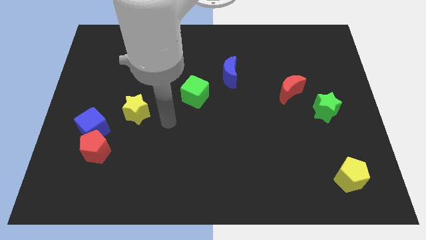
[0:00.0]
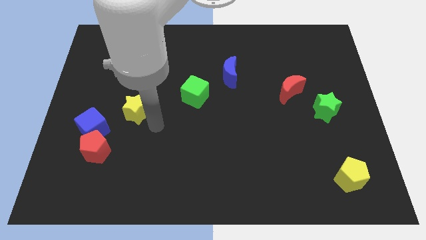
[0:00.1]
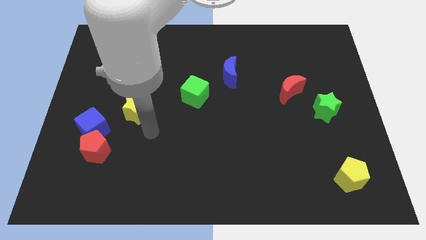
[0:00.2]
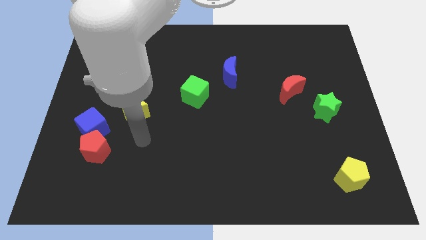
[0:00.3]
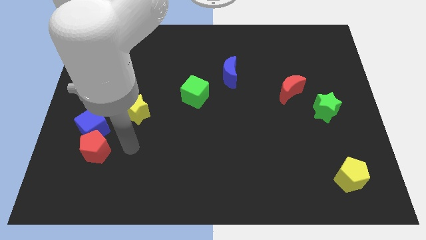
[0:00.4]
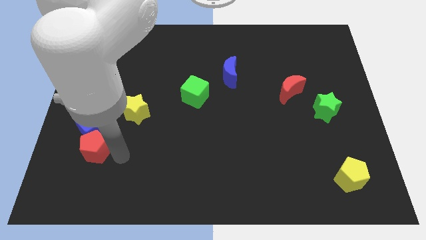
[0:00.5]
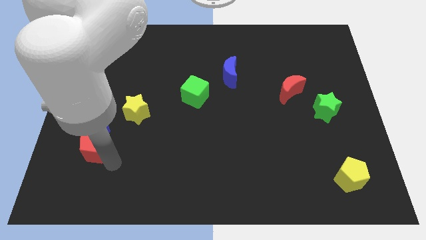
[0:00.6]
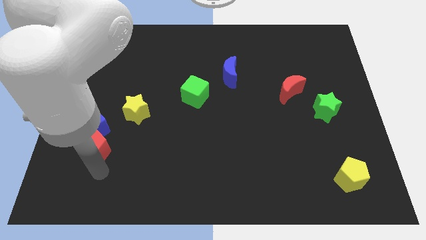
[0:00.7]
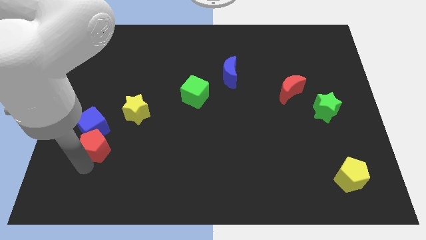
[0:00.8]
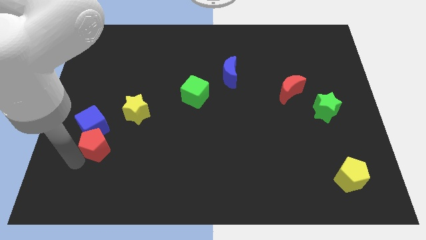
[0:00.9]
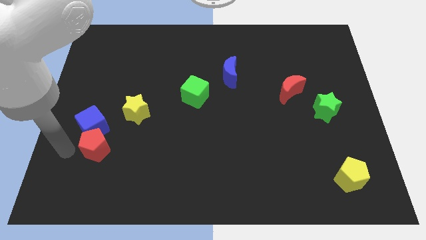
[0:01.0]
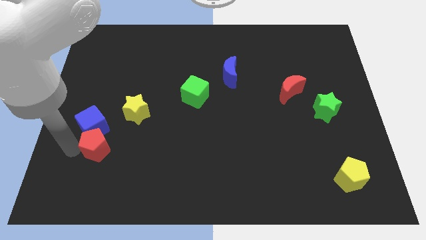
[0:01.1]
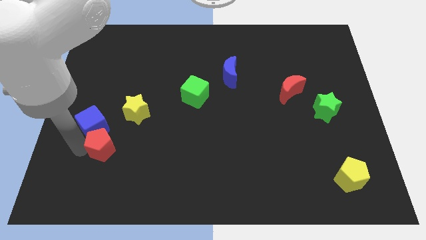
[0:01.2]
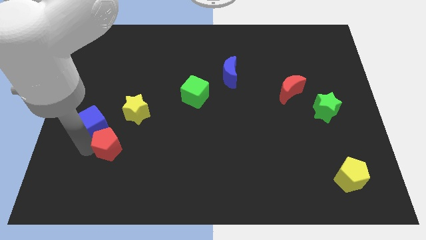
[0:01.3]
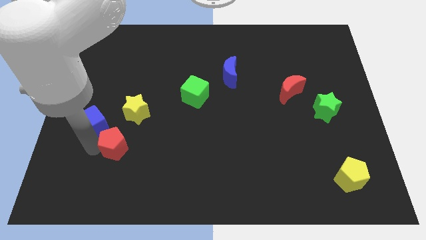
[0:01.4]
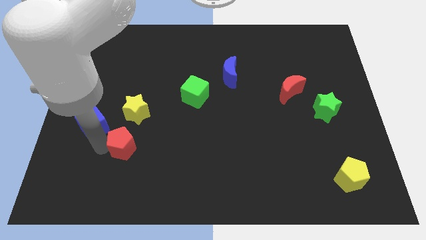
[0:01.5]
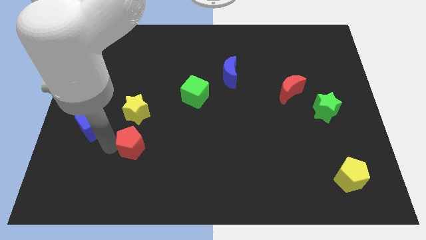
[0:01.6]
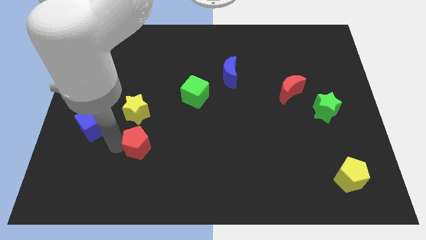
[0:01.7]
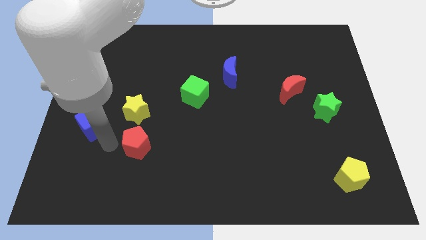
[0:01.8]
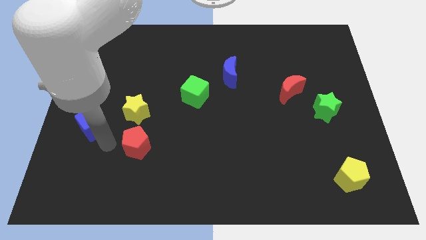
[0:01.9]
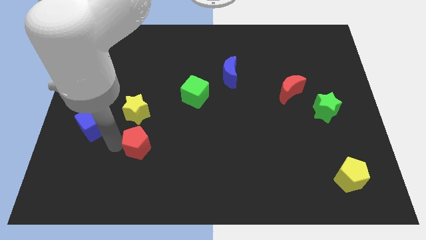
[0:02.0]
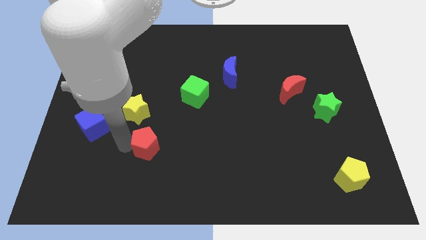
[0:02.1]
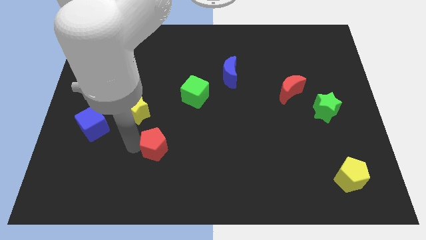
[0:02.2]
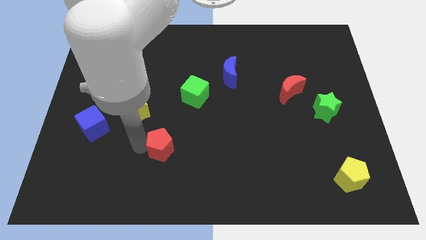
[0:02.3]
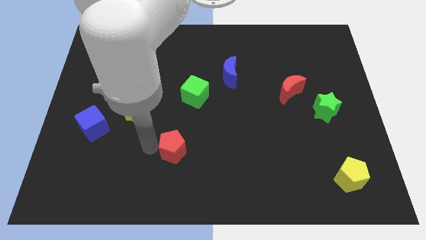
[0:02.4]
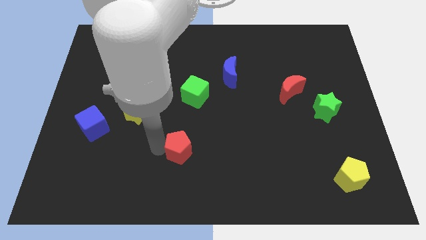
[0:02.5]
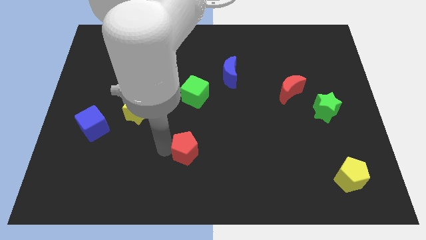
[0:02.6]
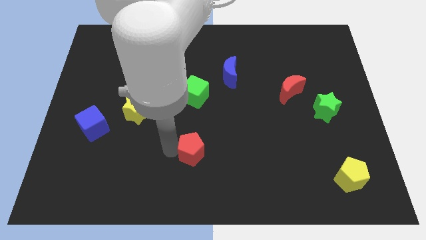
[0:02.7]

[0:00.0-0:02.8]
slide the red pentagon right

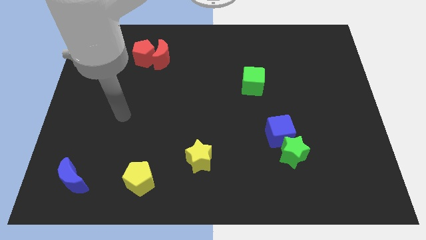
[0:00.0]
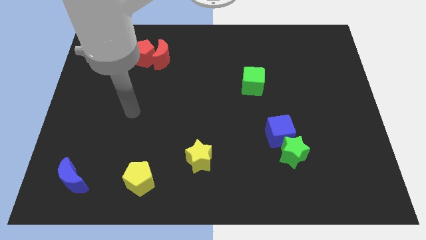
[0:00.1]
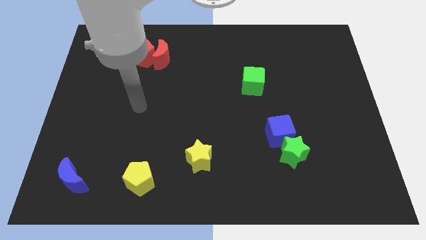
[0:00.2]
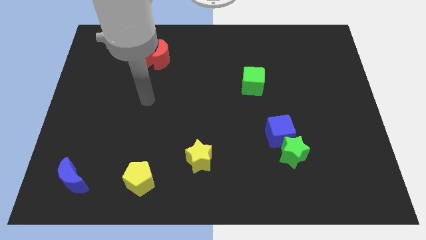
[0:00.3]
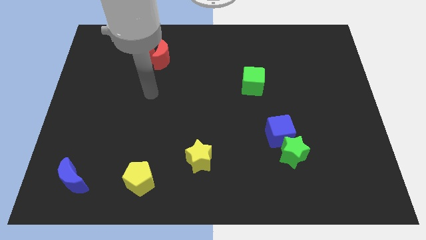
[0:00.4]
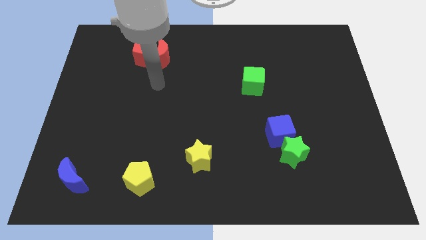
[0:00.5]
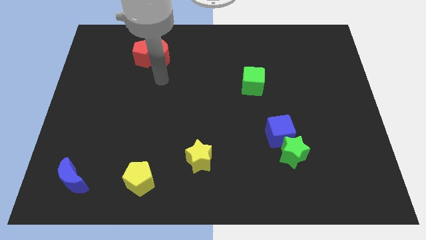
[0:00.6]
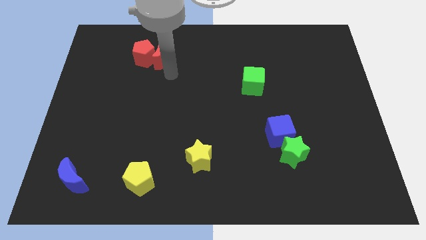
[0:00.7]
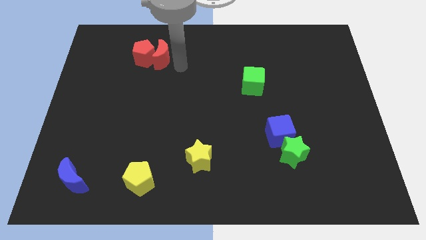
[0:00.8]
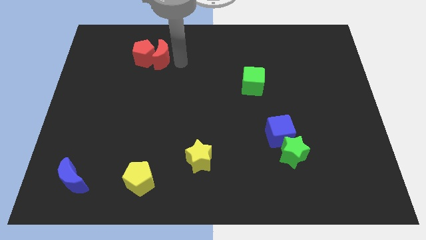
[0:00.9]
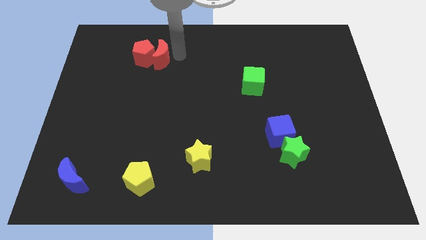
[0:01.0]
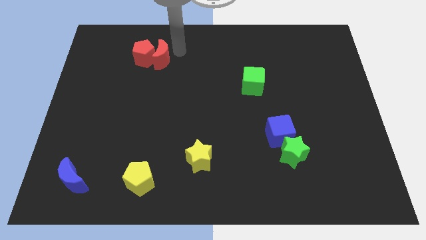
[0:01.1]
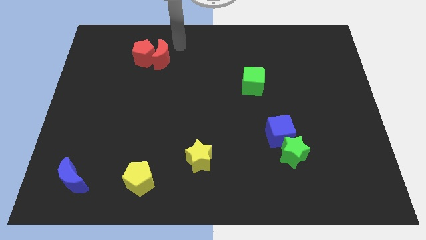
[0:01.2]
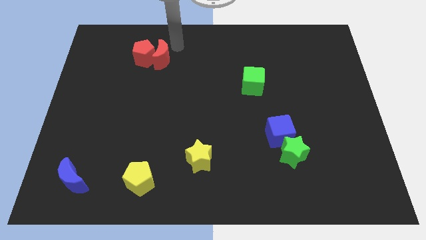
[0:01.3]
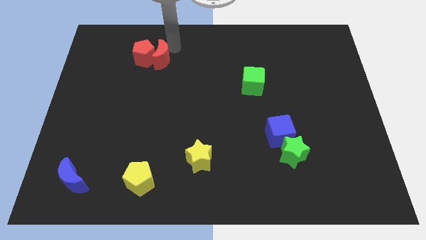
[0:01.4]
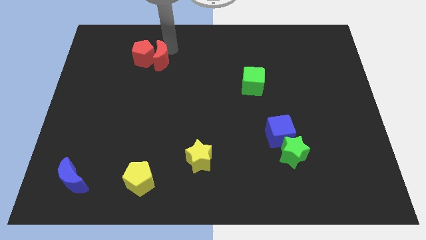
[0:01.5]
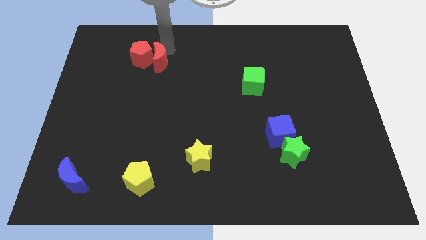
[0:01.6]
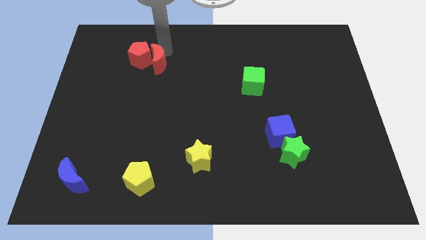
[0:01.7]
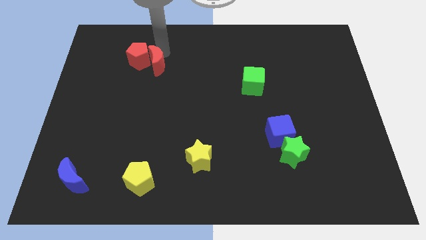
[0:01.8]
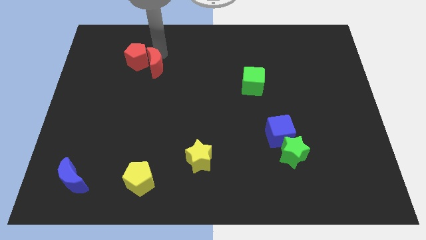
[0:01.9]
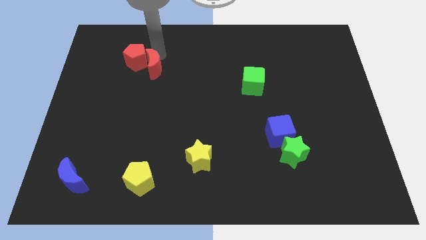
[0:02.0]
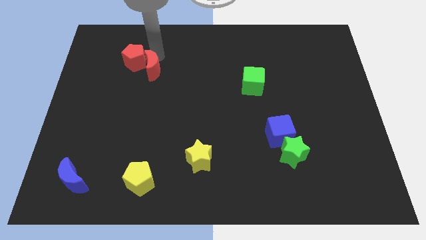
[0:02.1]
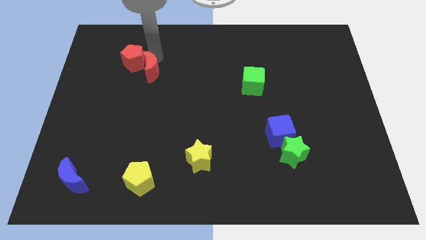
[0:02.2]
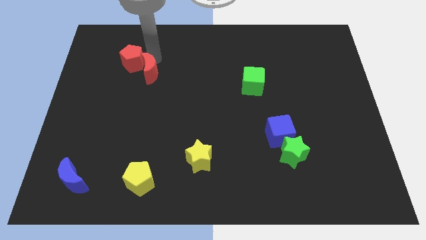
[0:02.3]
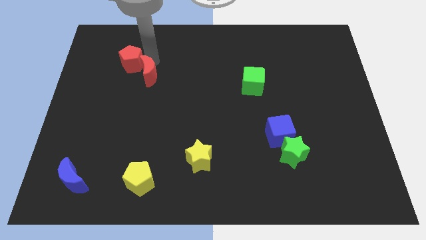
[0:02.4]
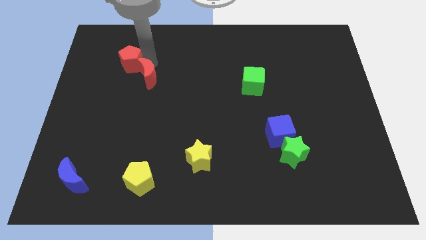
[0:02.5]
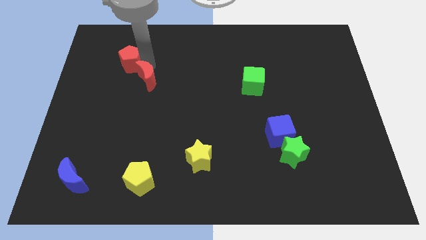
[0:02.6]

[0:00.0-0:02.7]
move the red moon diagonally down and left a little

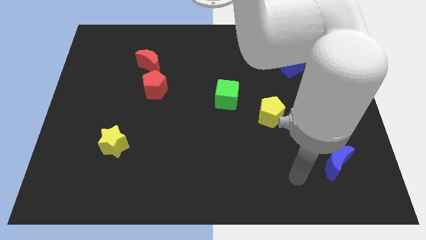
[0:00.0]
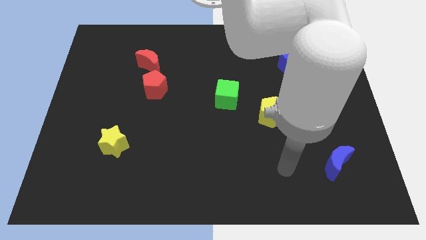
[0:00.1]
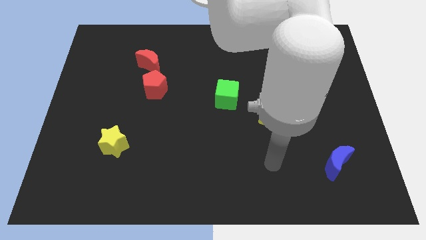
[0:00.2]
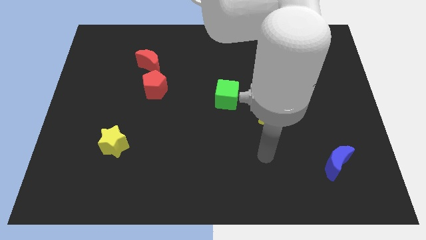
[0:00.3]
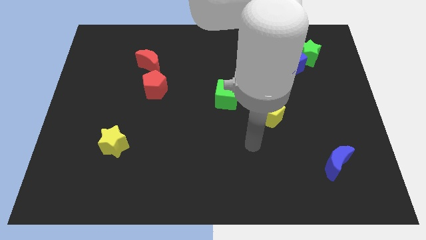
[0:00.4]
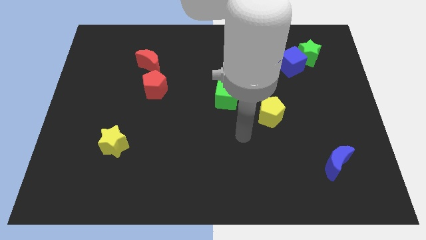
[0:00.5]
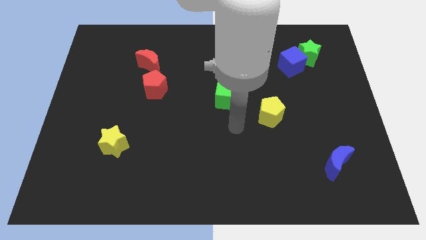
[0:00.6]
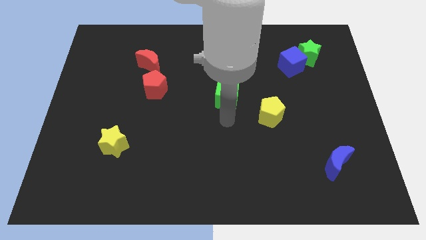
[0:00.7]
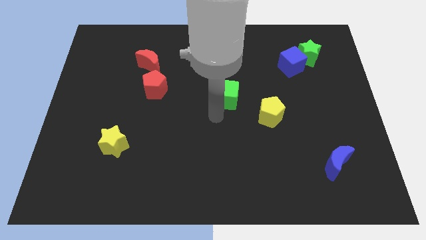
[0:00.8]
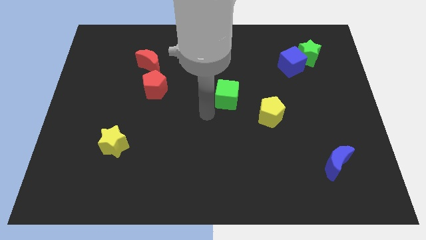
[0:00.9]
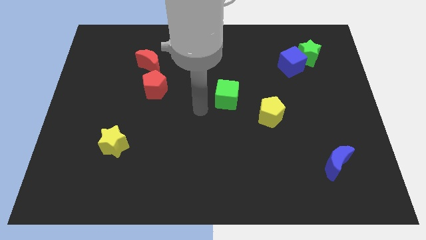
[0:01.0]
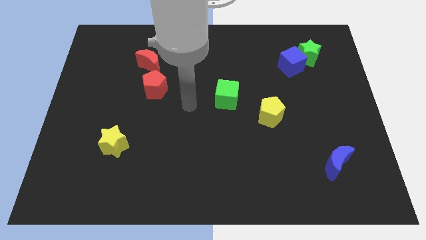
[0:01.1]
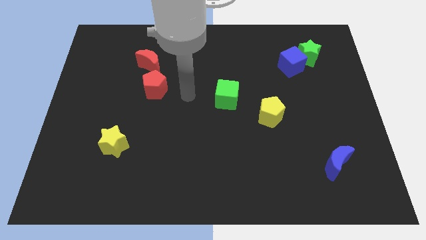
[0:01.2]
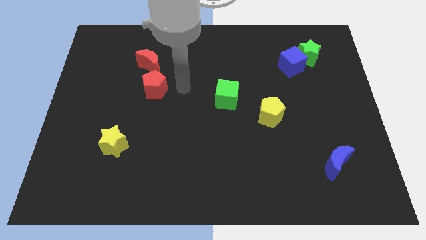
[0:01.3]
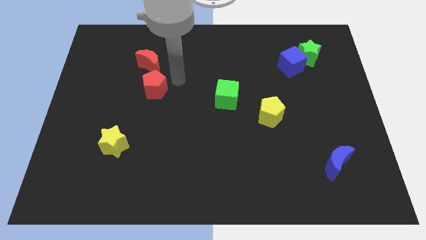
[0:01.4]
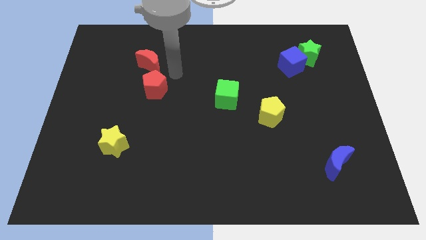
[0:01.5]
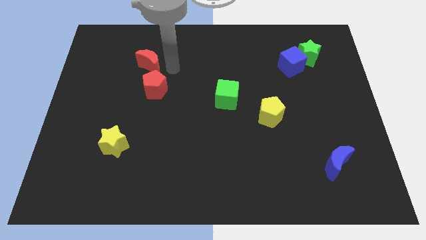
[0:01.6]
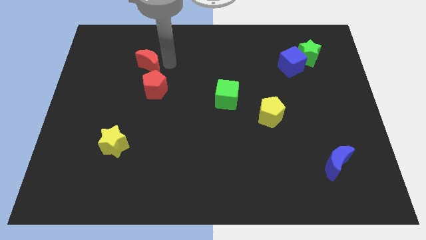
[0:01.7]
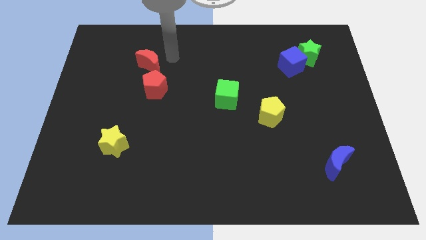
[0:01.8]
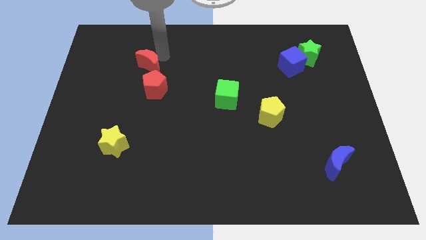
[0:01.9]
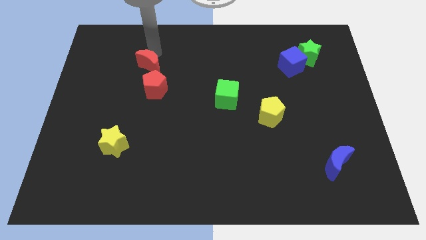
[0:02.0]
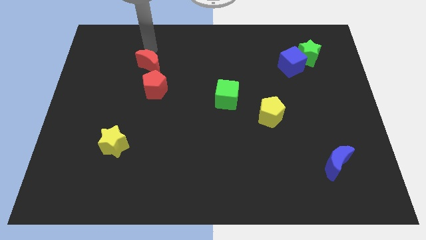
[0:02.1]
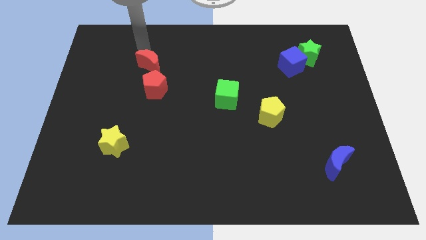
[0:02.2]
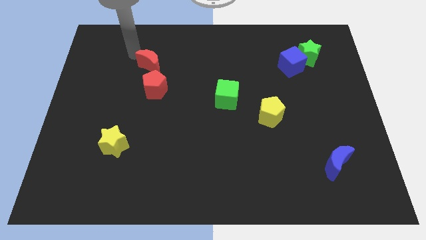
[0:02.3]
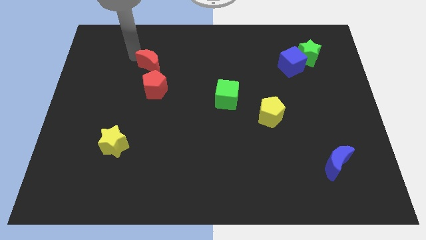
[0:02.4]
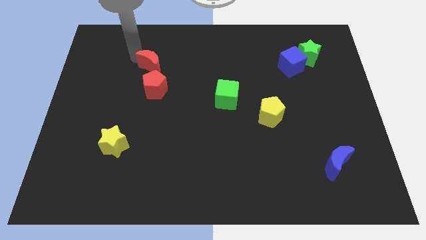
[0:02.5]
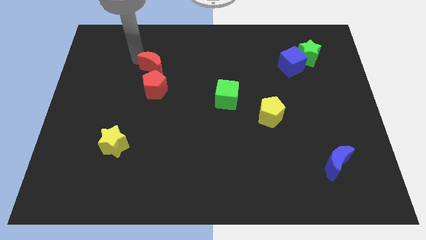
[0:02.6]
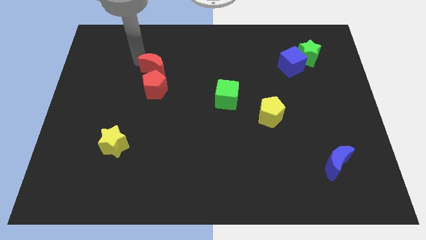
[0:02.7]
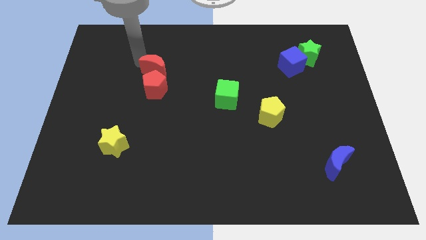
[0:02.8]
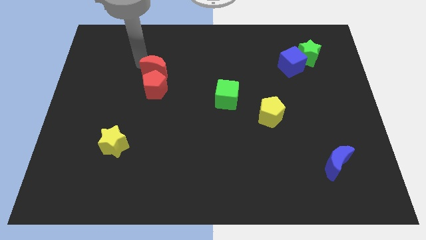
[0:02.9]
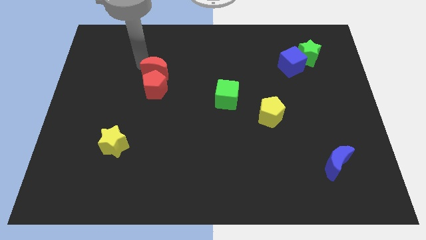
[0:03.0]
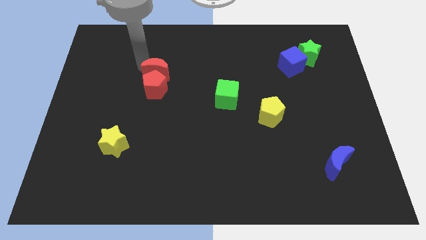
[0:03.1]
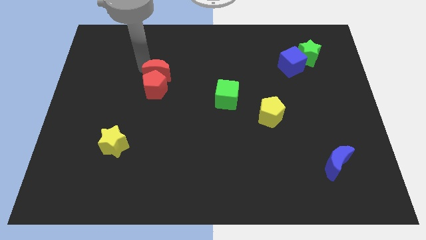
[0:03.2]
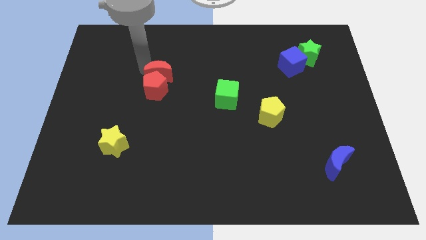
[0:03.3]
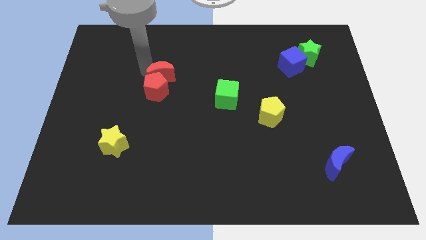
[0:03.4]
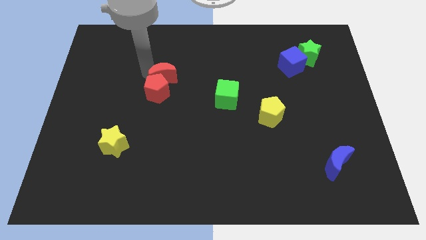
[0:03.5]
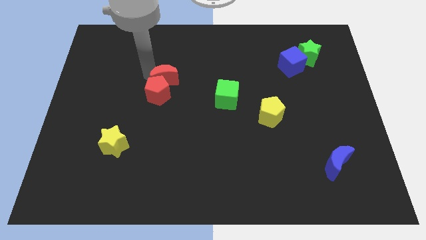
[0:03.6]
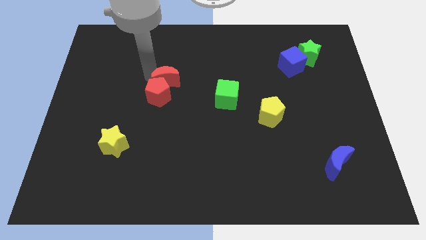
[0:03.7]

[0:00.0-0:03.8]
slide the red moon slightly downwards and then right
